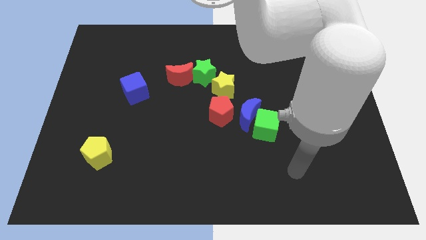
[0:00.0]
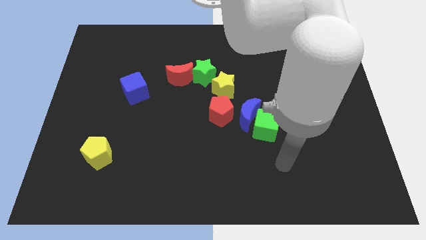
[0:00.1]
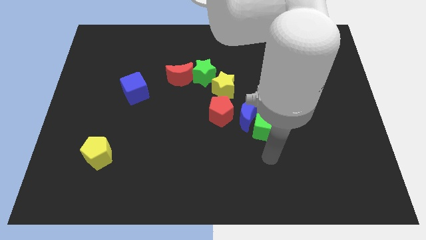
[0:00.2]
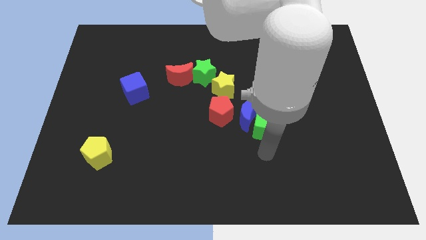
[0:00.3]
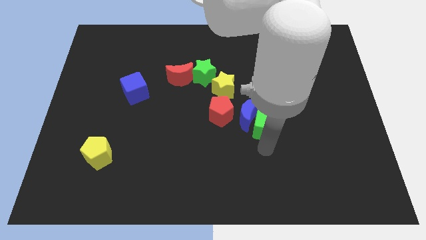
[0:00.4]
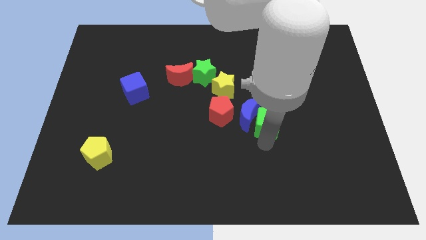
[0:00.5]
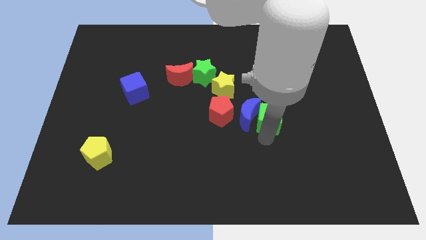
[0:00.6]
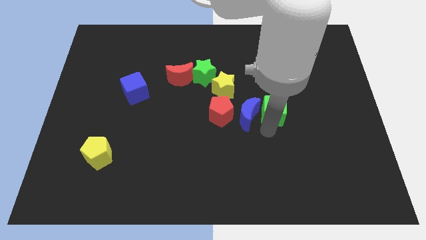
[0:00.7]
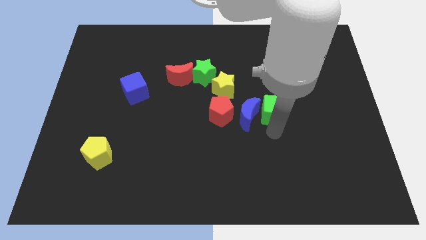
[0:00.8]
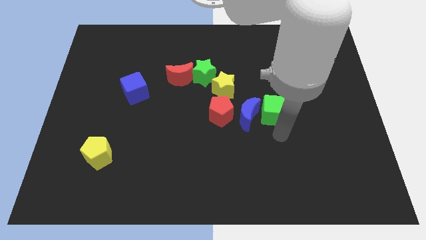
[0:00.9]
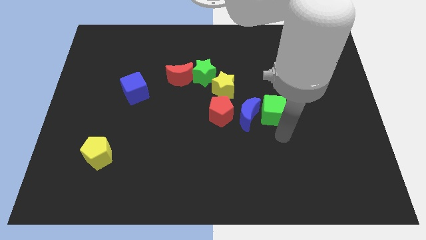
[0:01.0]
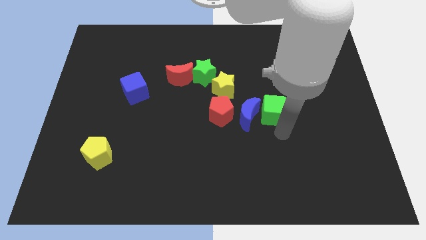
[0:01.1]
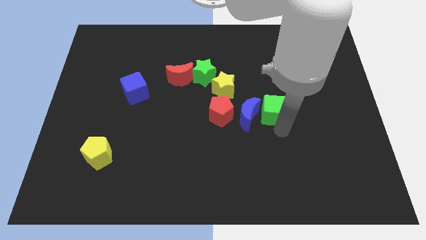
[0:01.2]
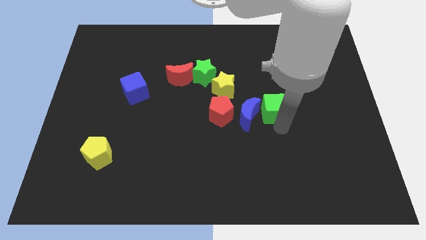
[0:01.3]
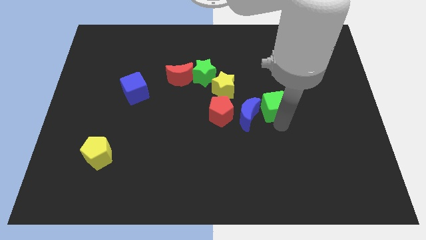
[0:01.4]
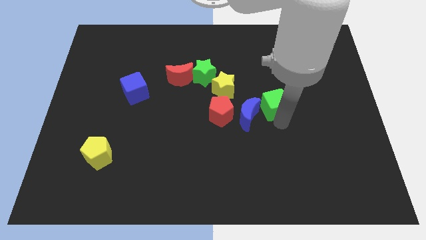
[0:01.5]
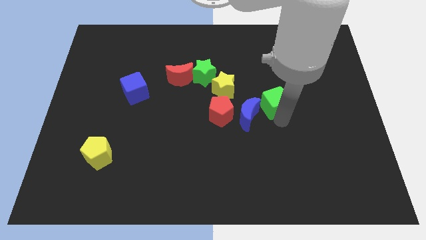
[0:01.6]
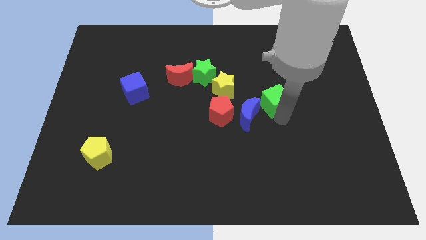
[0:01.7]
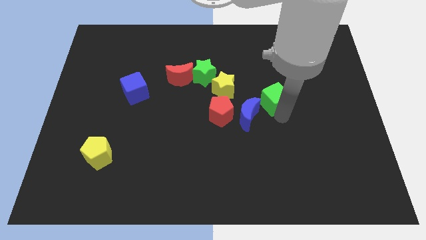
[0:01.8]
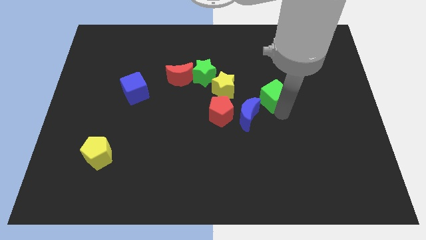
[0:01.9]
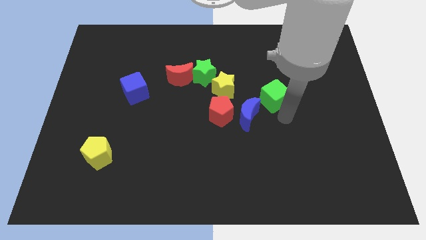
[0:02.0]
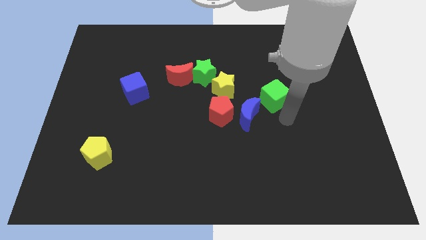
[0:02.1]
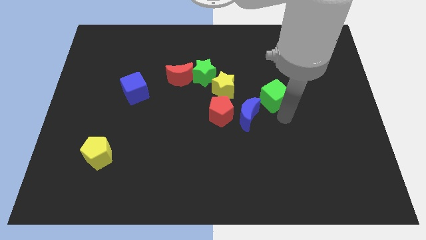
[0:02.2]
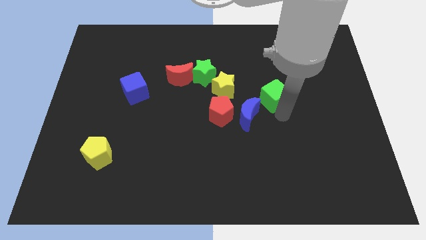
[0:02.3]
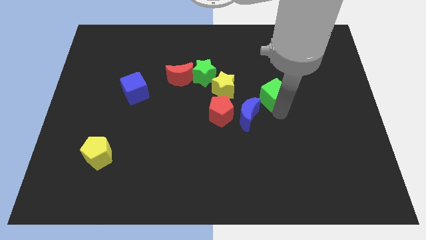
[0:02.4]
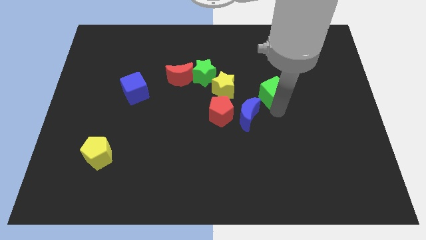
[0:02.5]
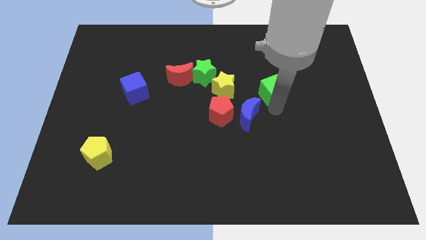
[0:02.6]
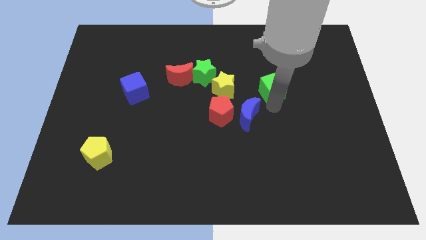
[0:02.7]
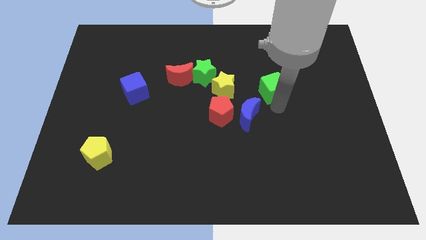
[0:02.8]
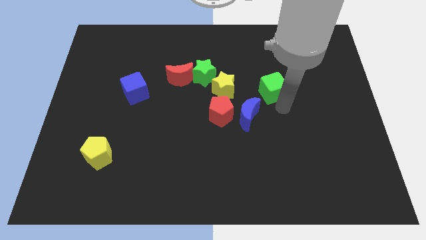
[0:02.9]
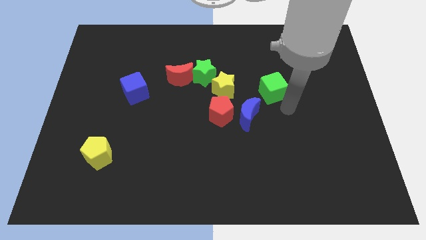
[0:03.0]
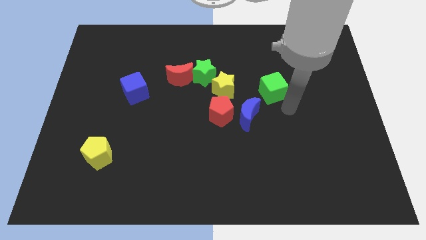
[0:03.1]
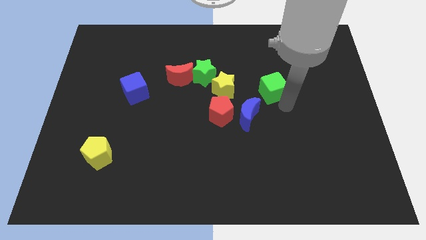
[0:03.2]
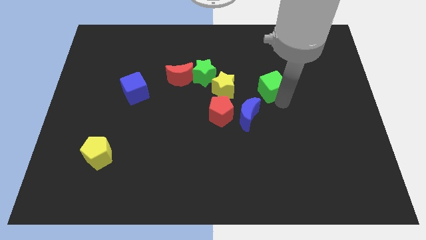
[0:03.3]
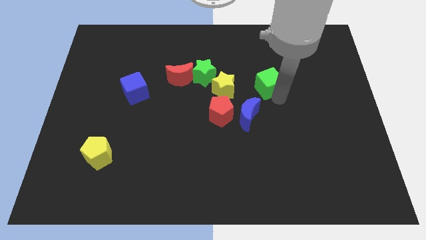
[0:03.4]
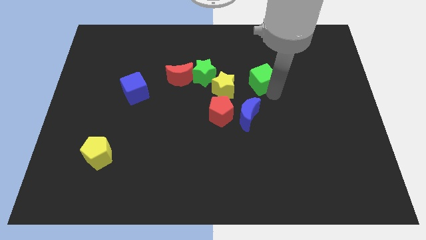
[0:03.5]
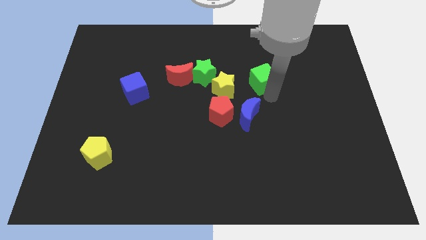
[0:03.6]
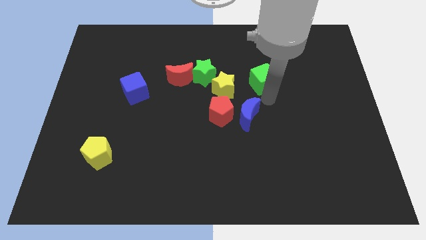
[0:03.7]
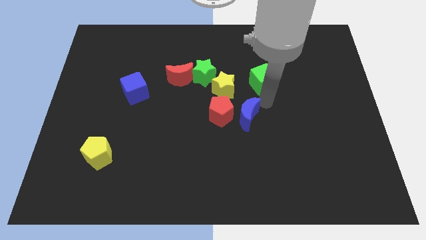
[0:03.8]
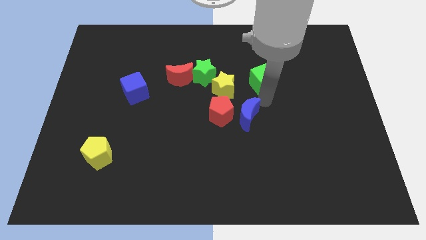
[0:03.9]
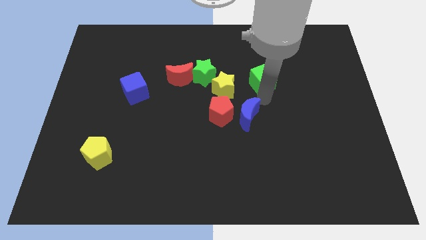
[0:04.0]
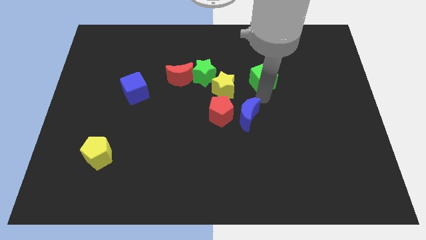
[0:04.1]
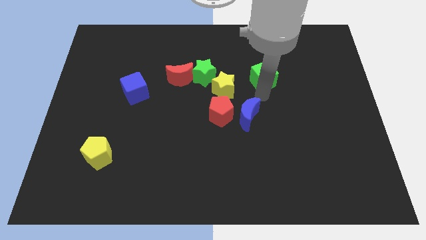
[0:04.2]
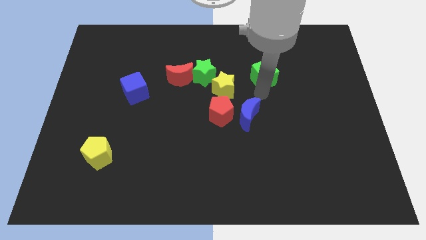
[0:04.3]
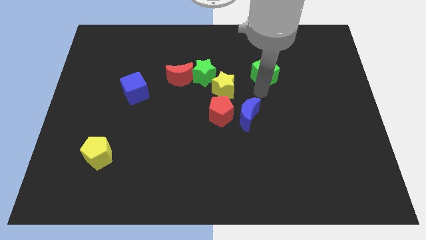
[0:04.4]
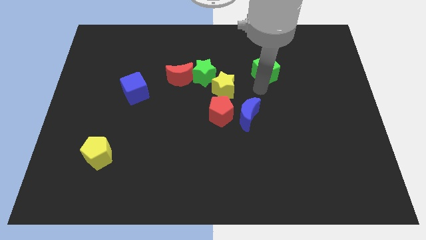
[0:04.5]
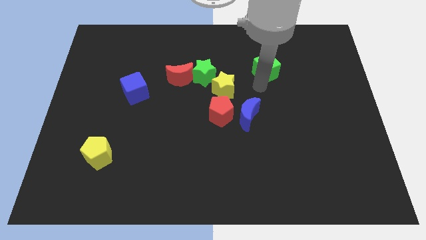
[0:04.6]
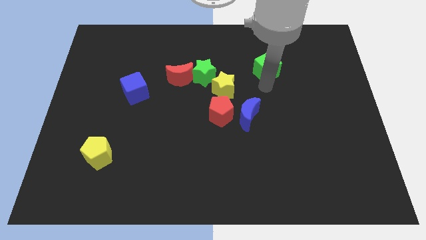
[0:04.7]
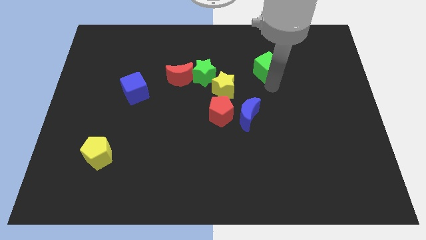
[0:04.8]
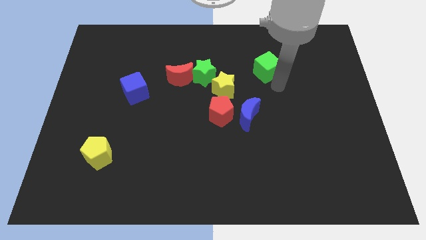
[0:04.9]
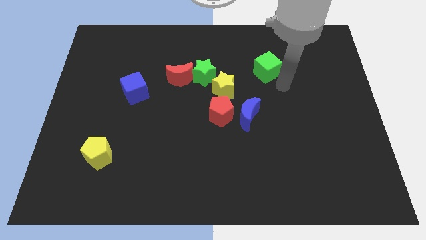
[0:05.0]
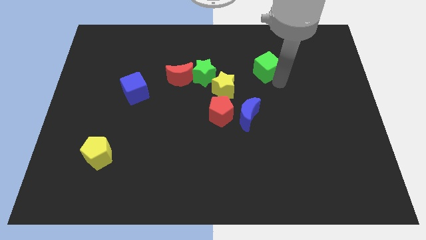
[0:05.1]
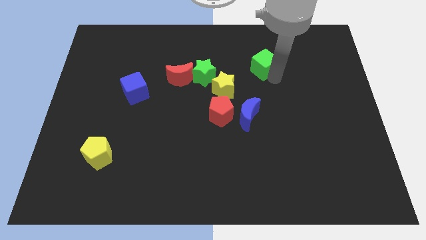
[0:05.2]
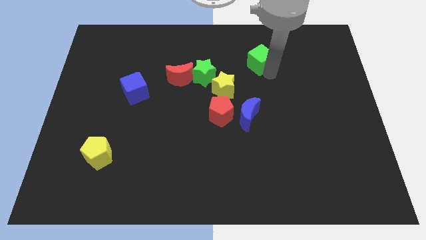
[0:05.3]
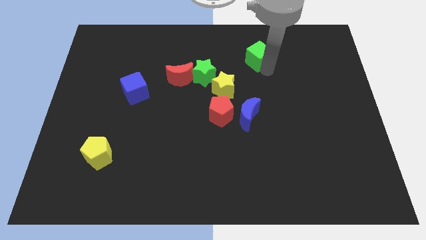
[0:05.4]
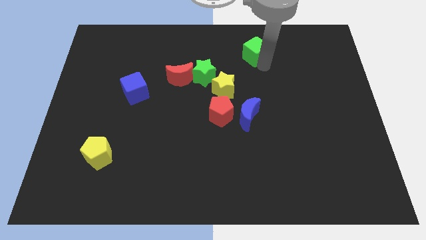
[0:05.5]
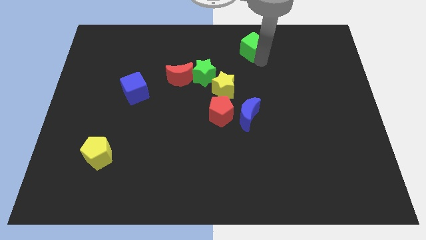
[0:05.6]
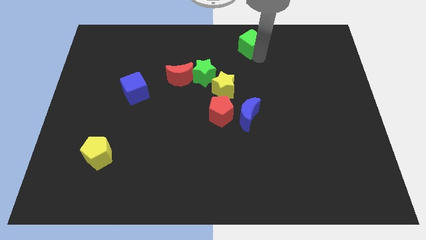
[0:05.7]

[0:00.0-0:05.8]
slide the green cube to the top
